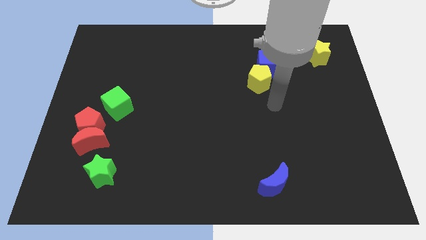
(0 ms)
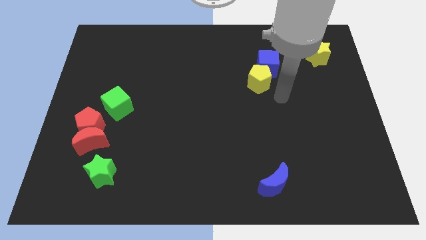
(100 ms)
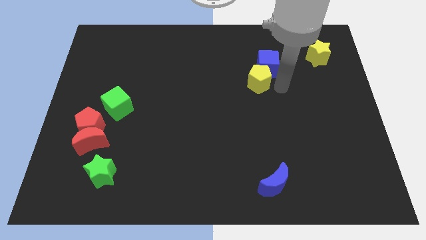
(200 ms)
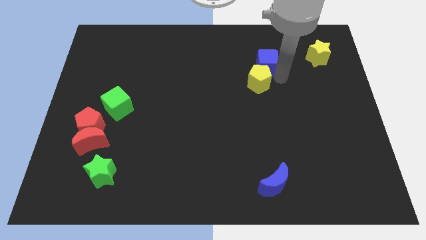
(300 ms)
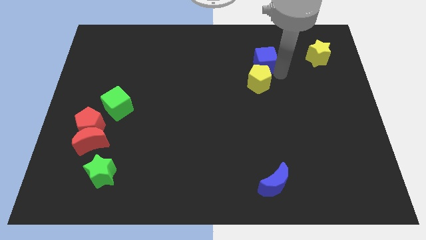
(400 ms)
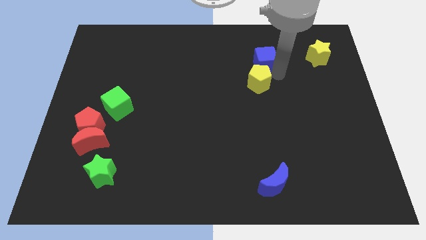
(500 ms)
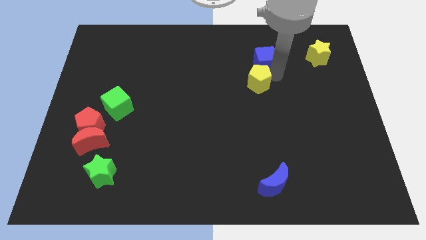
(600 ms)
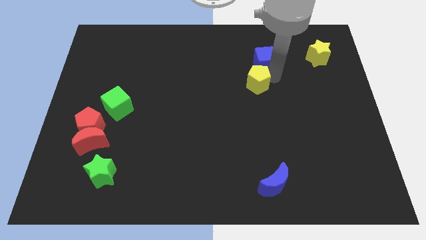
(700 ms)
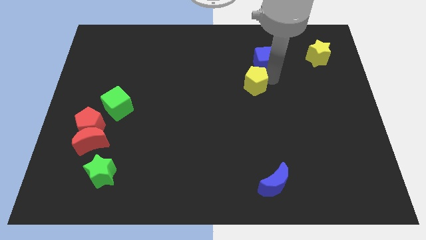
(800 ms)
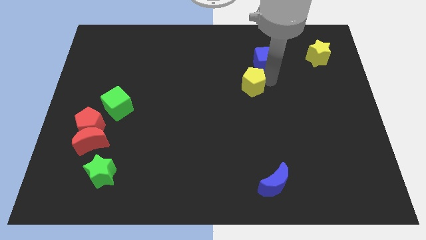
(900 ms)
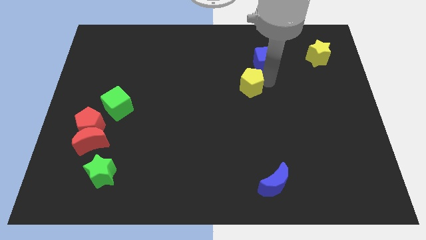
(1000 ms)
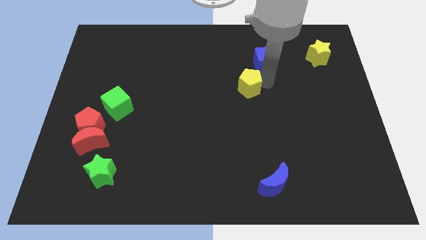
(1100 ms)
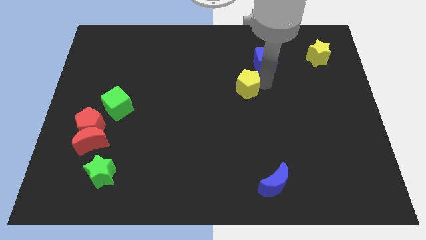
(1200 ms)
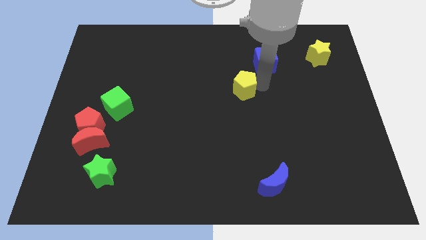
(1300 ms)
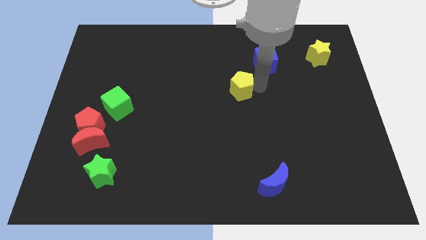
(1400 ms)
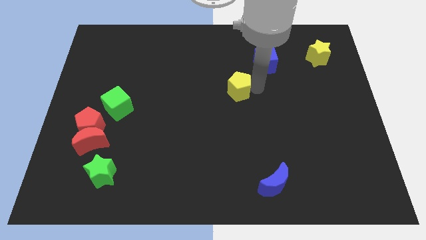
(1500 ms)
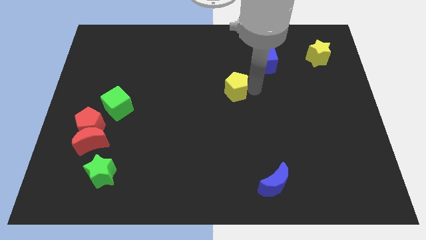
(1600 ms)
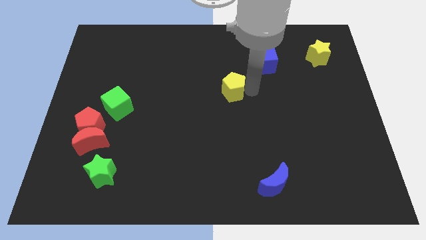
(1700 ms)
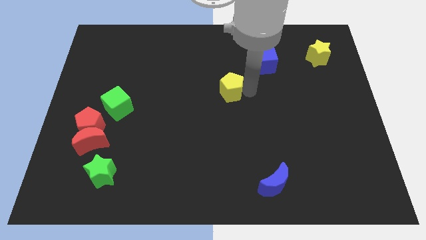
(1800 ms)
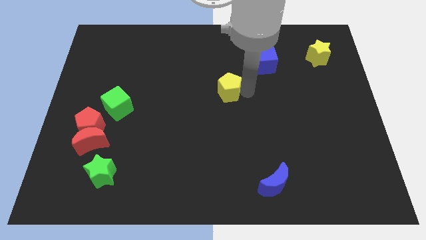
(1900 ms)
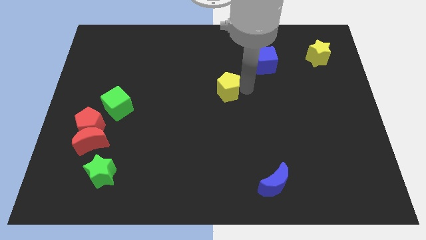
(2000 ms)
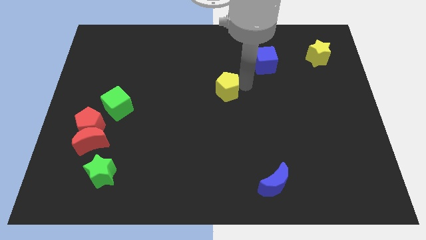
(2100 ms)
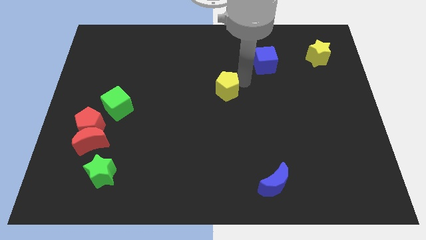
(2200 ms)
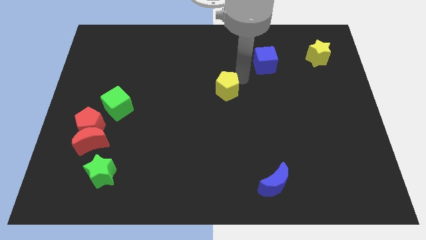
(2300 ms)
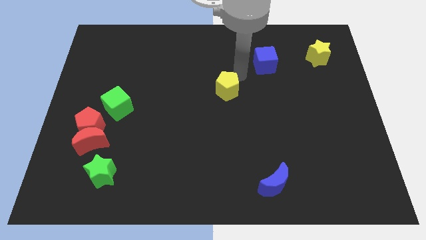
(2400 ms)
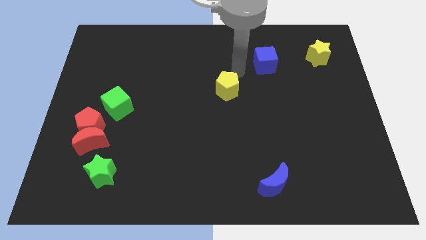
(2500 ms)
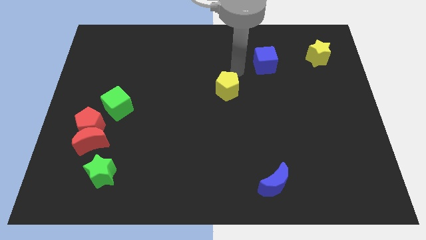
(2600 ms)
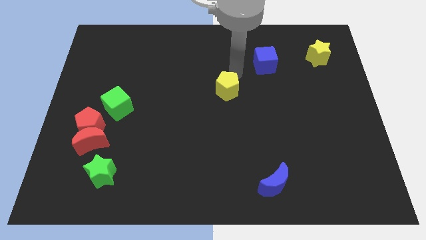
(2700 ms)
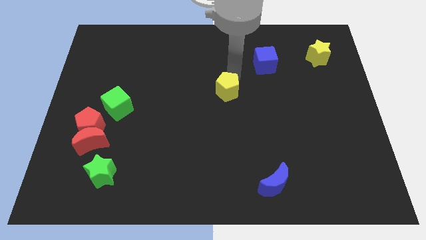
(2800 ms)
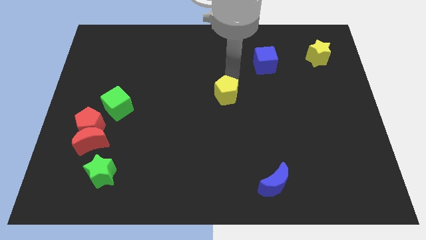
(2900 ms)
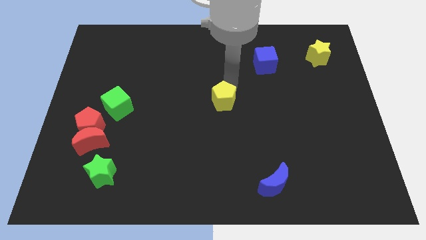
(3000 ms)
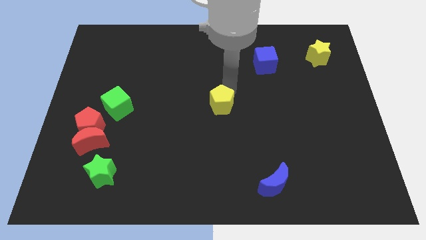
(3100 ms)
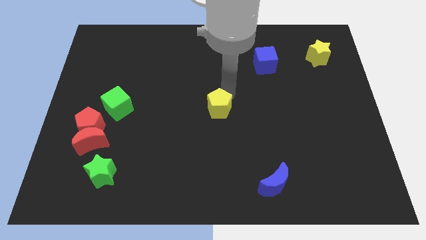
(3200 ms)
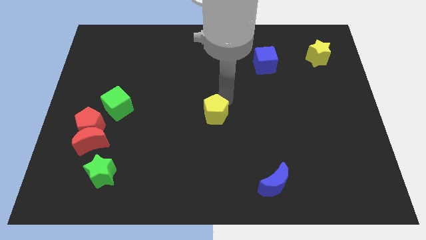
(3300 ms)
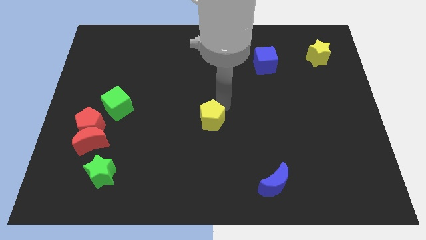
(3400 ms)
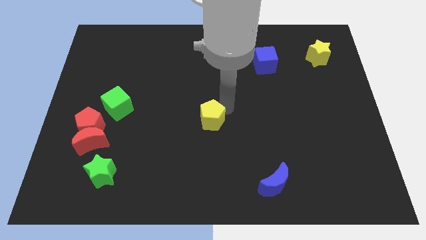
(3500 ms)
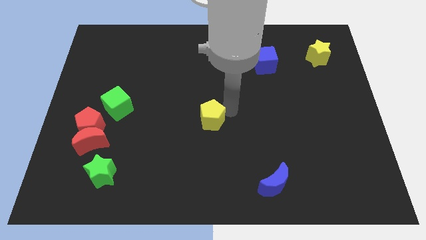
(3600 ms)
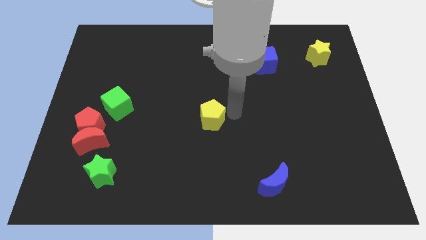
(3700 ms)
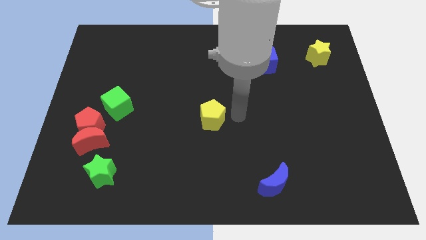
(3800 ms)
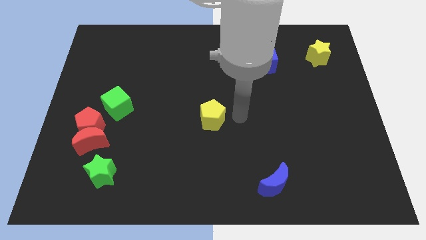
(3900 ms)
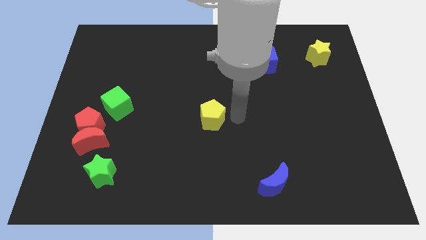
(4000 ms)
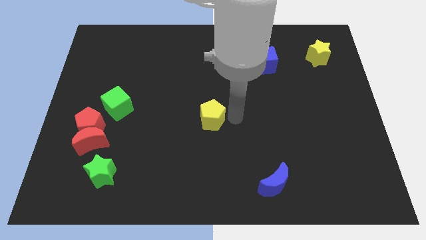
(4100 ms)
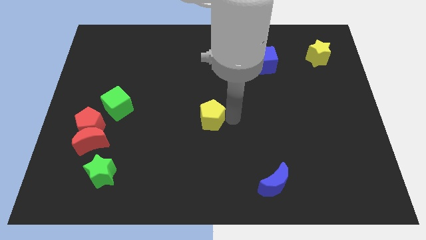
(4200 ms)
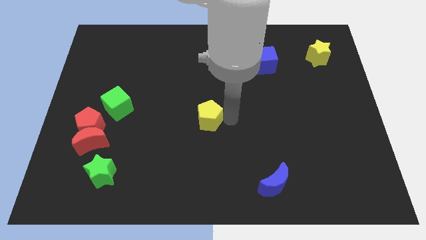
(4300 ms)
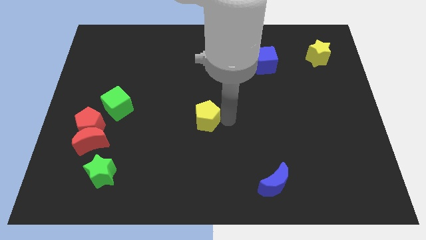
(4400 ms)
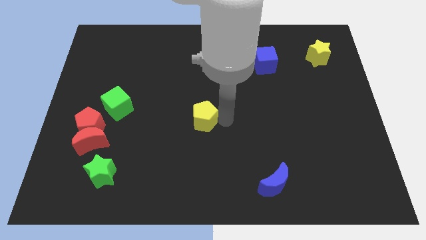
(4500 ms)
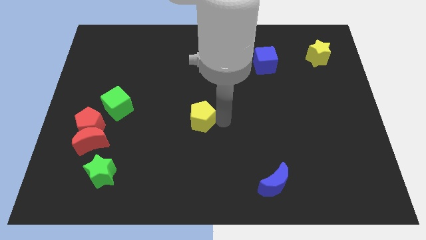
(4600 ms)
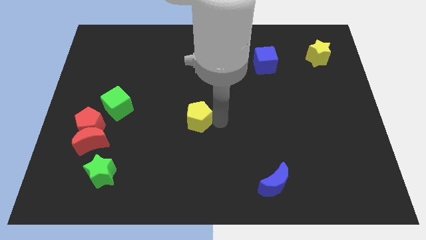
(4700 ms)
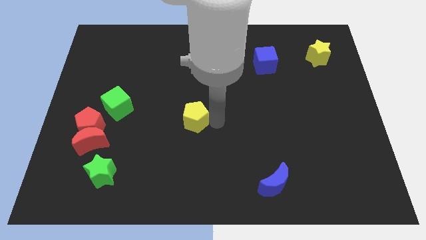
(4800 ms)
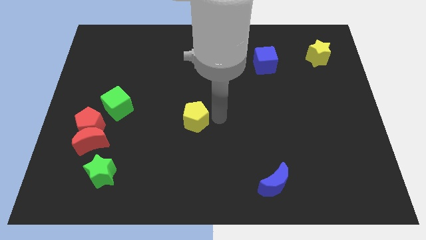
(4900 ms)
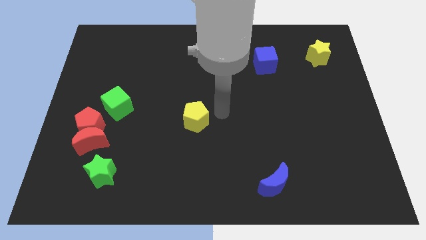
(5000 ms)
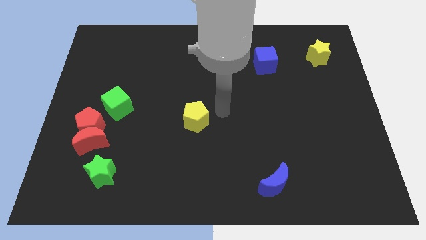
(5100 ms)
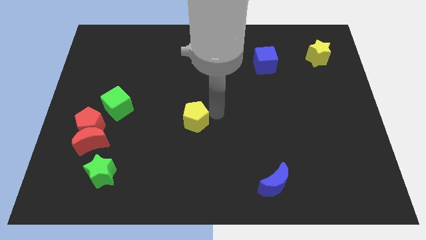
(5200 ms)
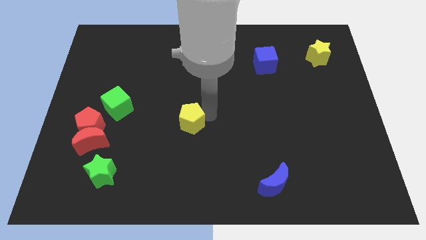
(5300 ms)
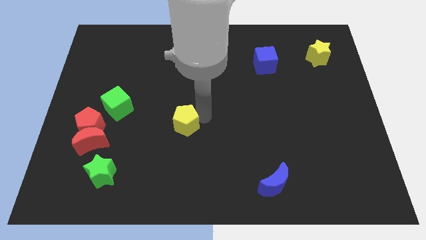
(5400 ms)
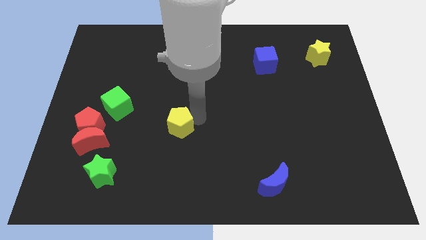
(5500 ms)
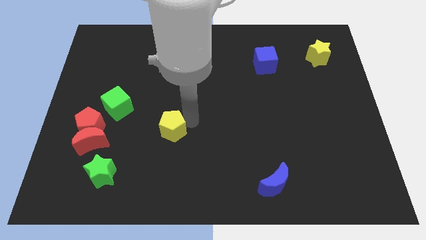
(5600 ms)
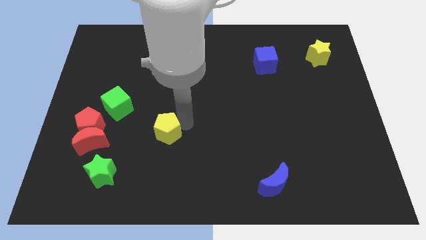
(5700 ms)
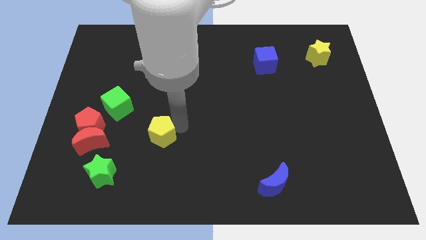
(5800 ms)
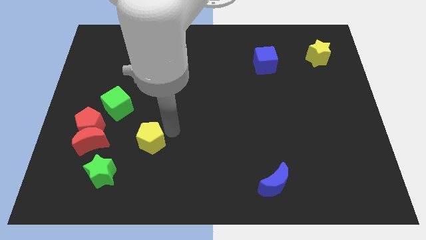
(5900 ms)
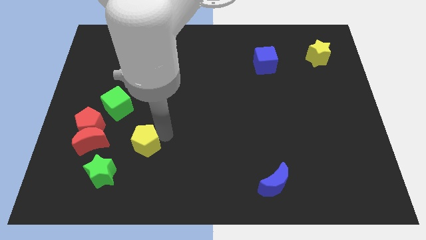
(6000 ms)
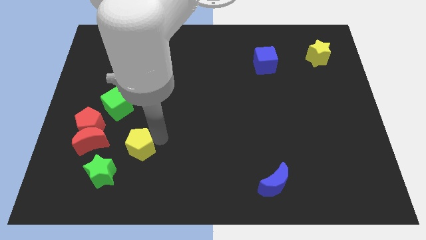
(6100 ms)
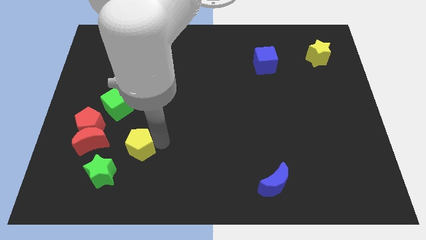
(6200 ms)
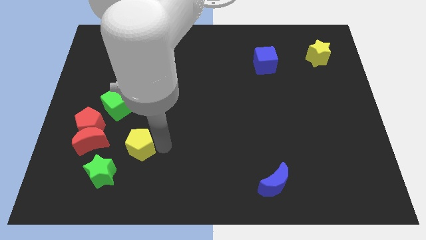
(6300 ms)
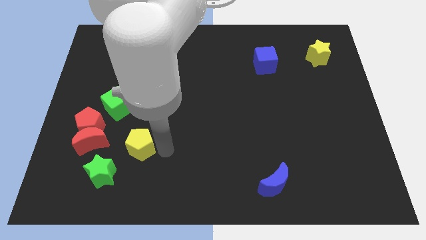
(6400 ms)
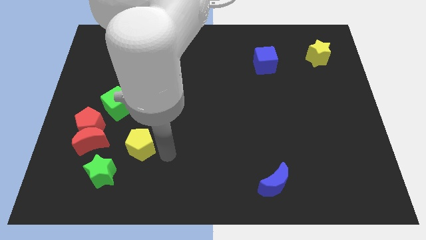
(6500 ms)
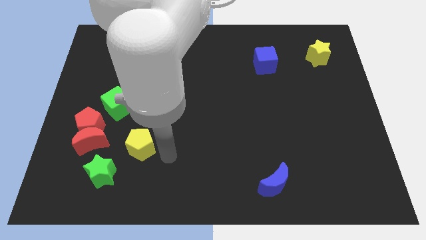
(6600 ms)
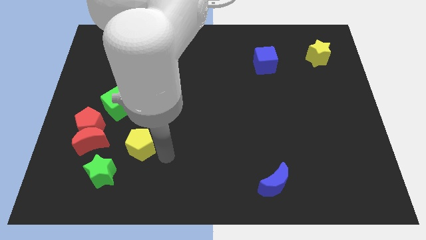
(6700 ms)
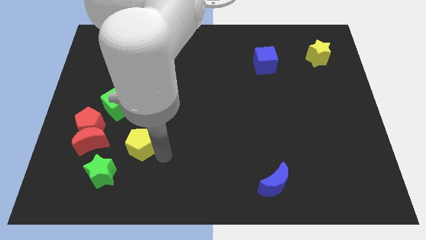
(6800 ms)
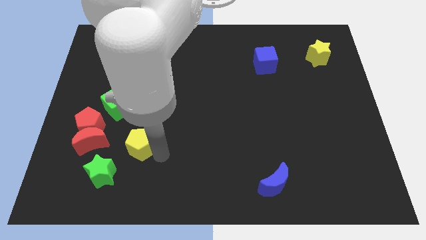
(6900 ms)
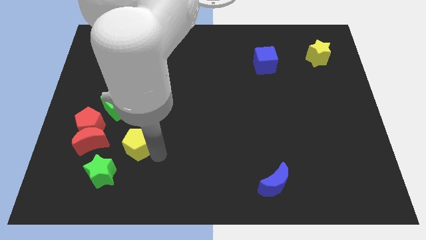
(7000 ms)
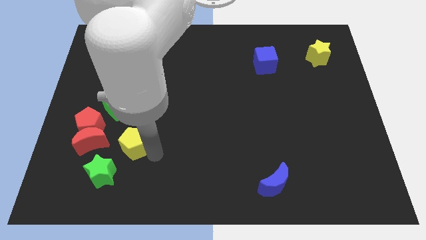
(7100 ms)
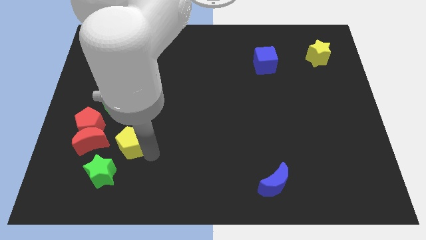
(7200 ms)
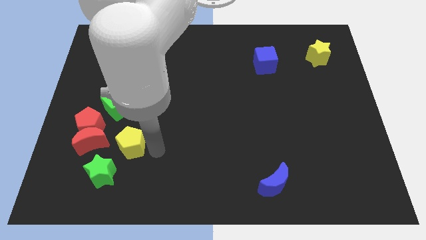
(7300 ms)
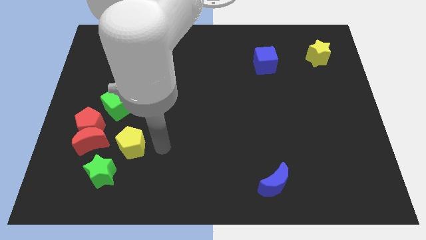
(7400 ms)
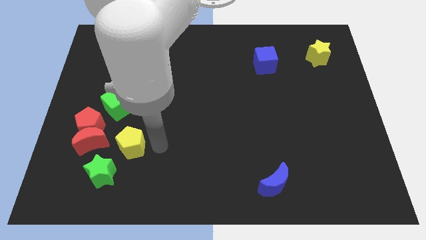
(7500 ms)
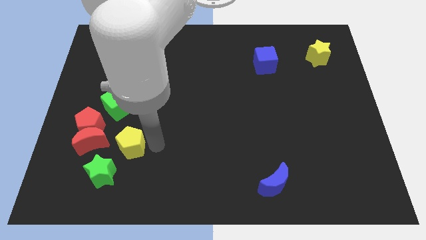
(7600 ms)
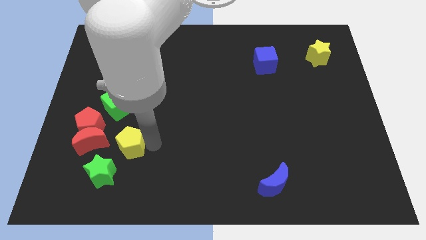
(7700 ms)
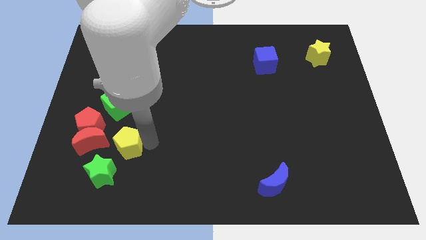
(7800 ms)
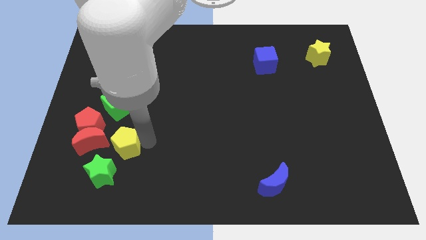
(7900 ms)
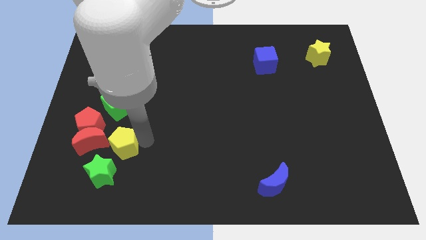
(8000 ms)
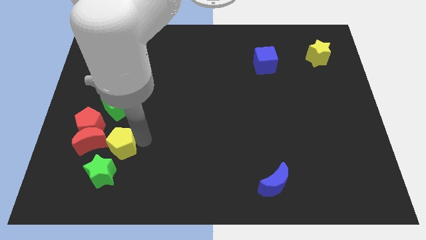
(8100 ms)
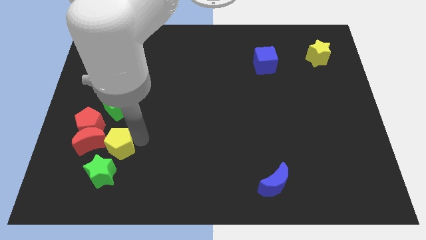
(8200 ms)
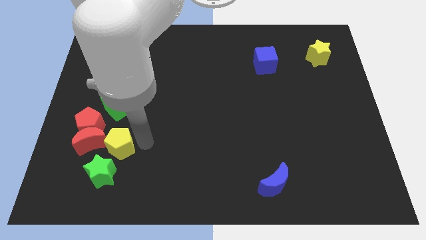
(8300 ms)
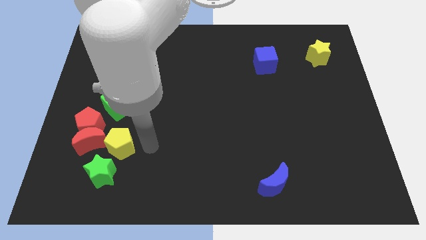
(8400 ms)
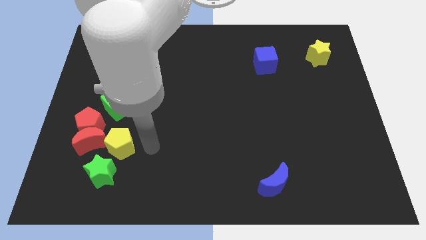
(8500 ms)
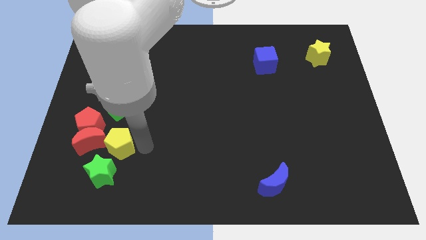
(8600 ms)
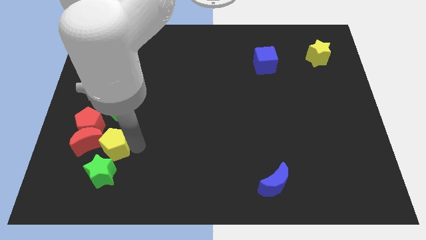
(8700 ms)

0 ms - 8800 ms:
put the yellow pentagon to the red moon
